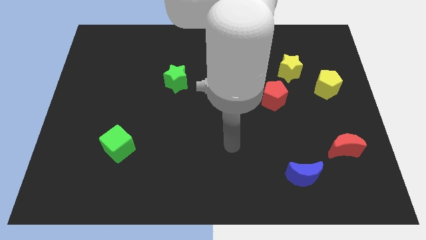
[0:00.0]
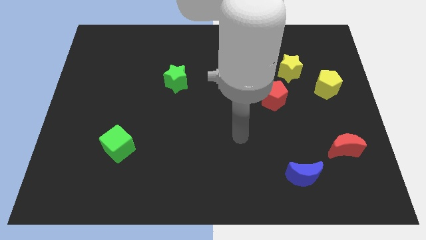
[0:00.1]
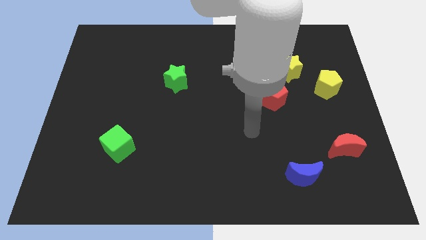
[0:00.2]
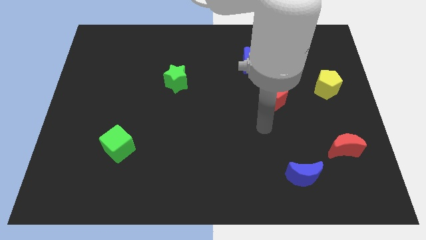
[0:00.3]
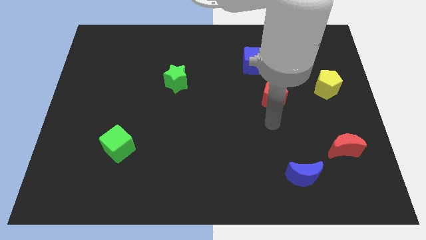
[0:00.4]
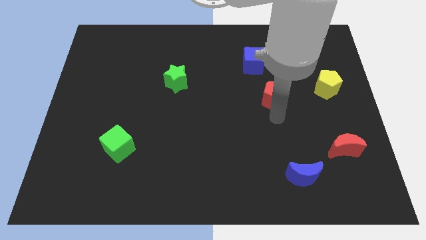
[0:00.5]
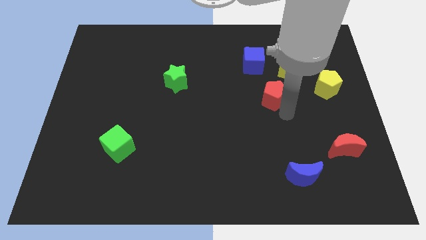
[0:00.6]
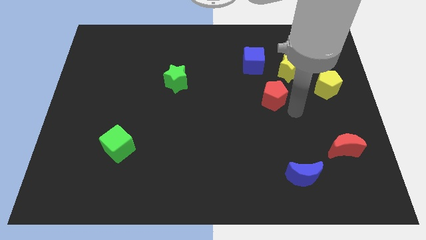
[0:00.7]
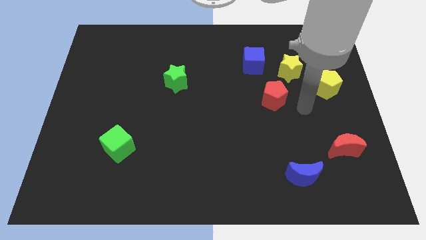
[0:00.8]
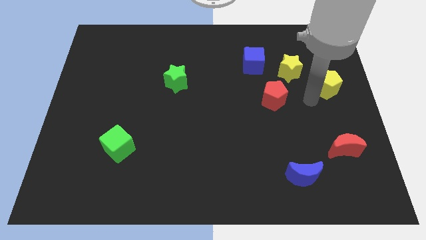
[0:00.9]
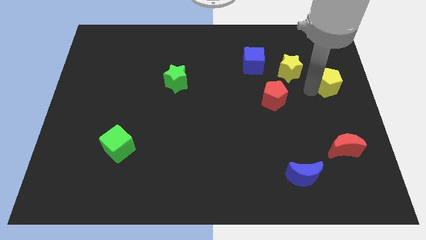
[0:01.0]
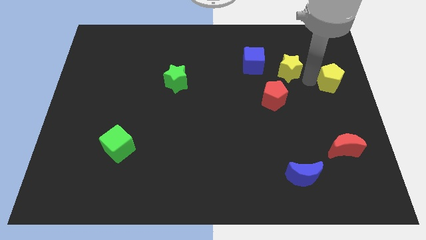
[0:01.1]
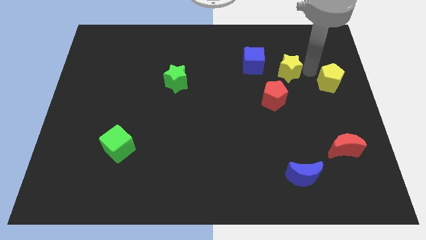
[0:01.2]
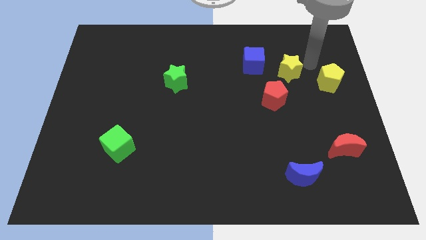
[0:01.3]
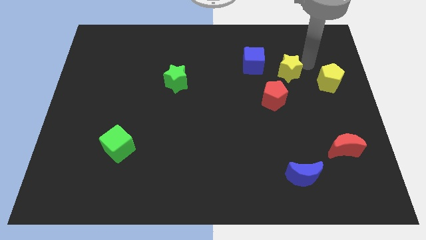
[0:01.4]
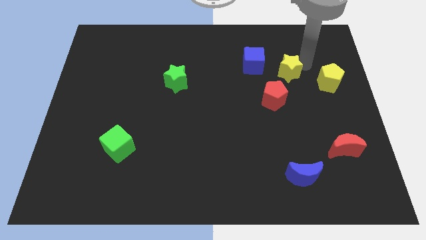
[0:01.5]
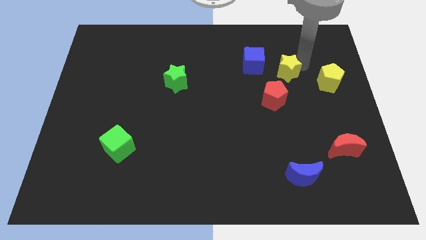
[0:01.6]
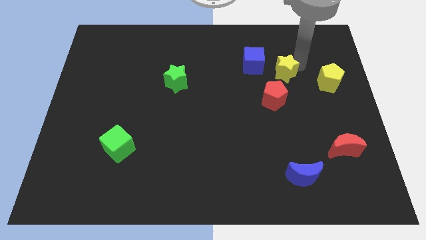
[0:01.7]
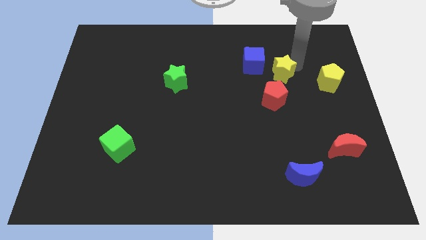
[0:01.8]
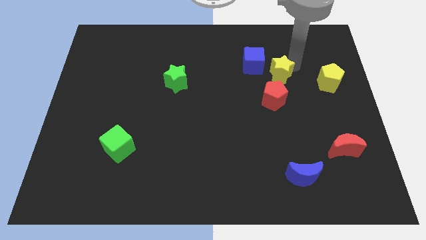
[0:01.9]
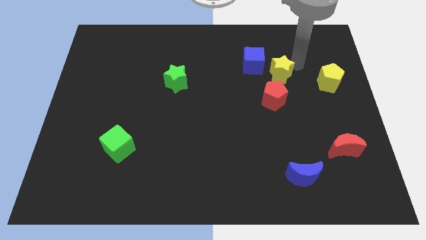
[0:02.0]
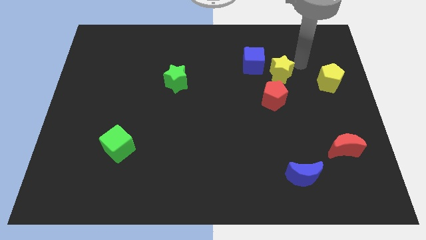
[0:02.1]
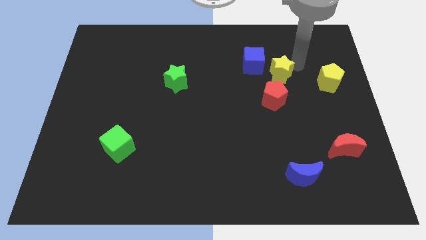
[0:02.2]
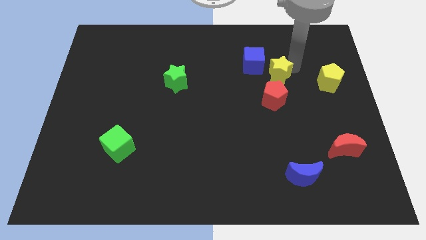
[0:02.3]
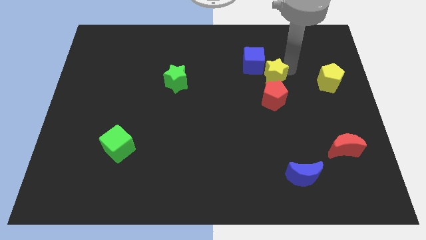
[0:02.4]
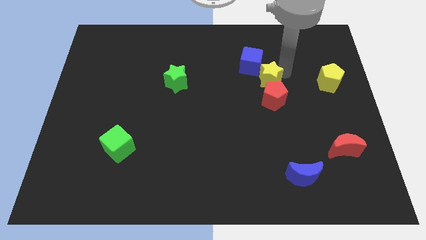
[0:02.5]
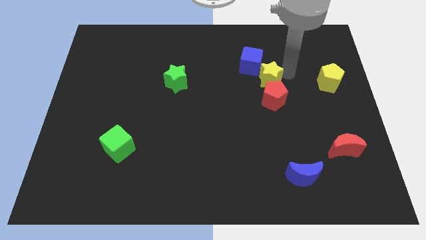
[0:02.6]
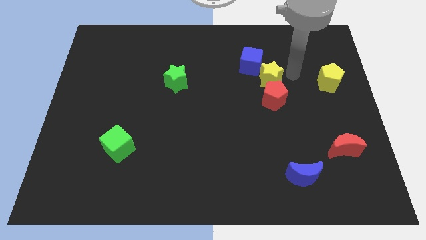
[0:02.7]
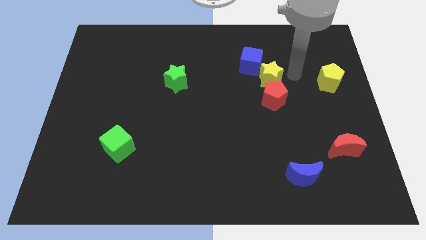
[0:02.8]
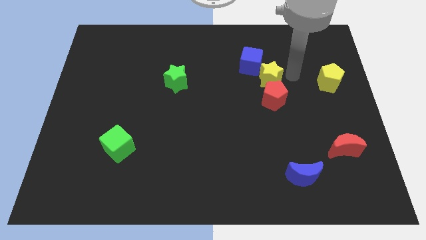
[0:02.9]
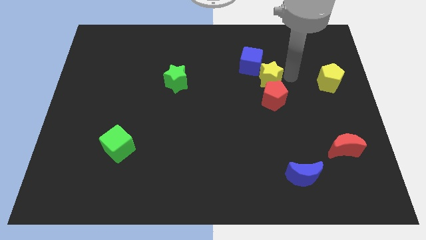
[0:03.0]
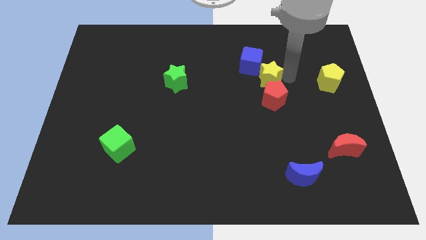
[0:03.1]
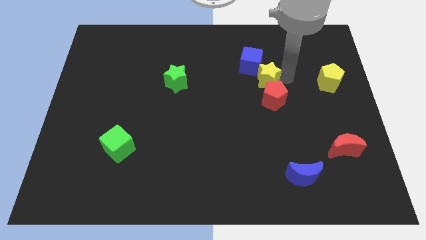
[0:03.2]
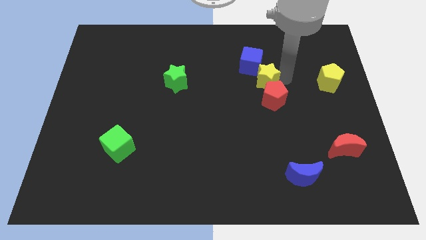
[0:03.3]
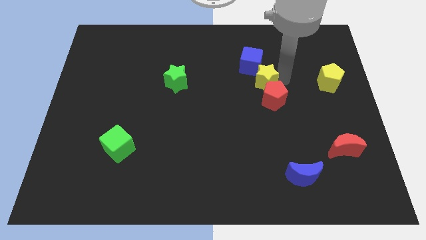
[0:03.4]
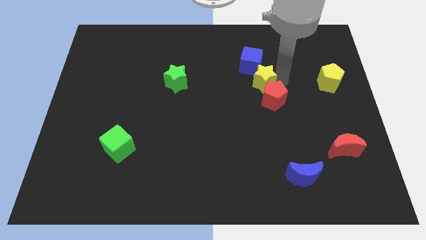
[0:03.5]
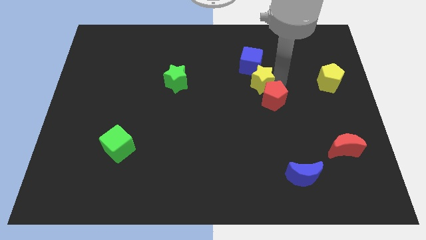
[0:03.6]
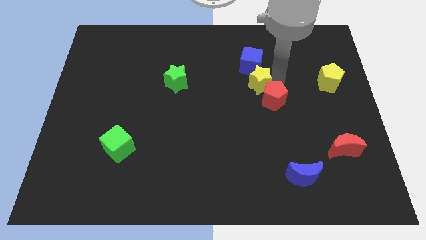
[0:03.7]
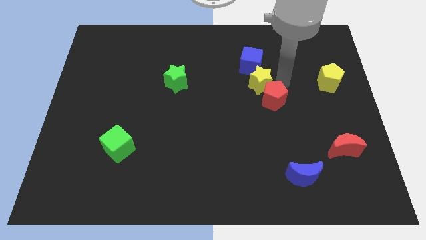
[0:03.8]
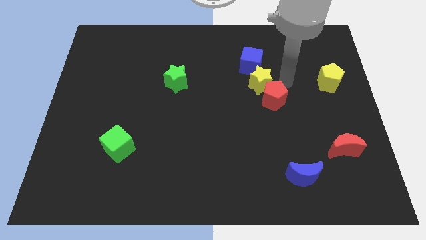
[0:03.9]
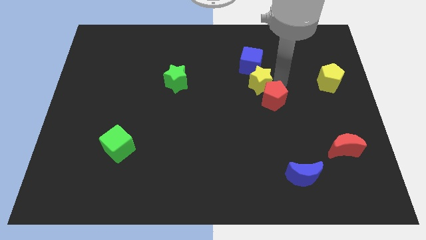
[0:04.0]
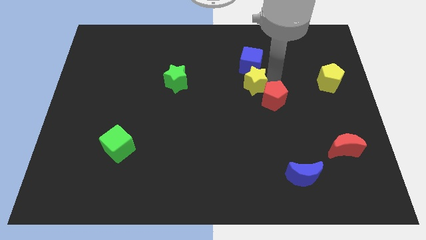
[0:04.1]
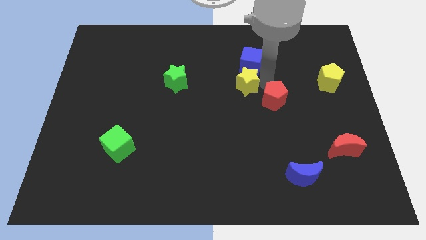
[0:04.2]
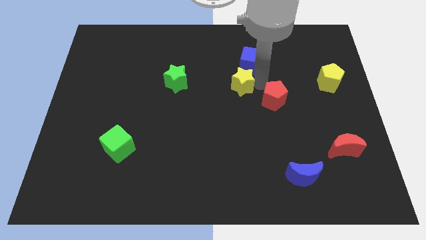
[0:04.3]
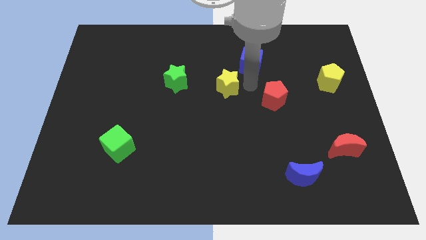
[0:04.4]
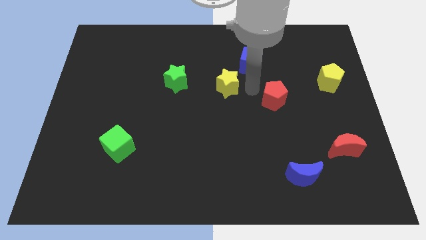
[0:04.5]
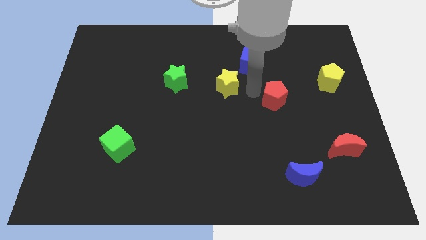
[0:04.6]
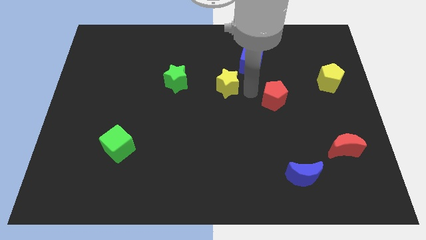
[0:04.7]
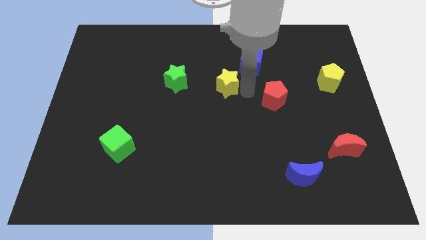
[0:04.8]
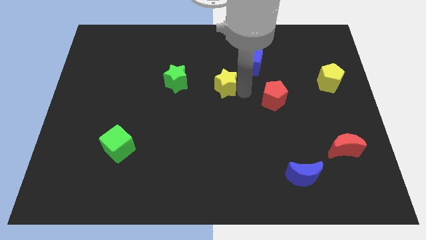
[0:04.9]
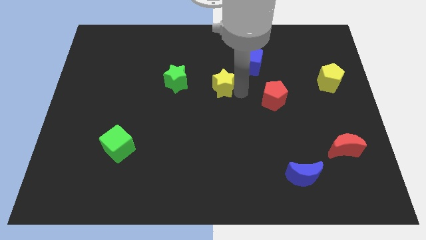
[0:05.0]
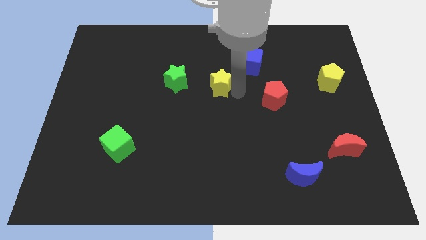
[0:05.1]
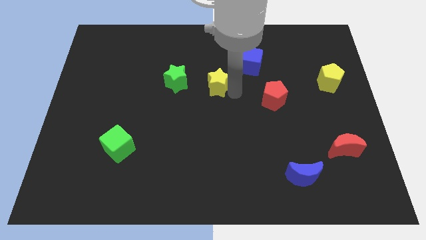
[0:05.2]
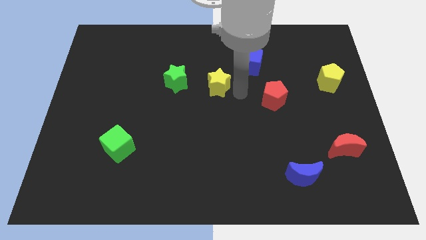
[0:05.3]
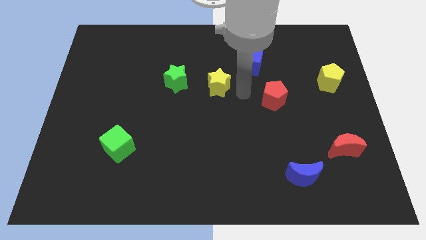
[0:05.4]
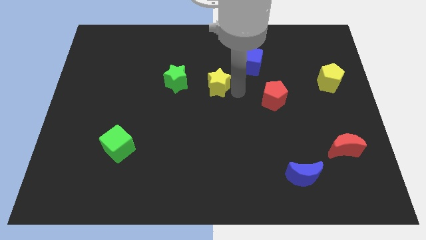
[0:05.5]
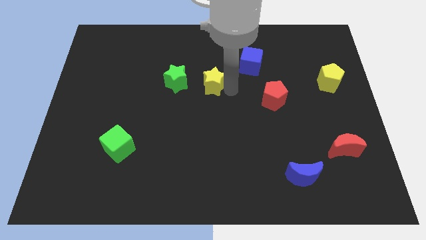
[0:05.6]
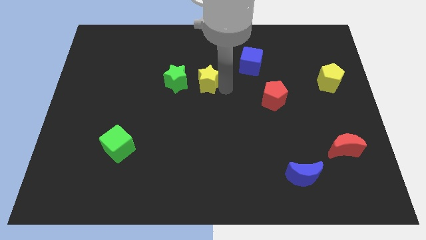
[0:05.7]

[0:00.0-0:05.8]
push the yellow star left

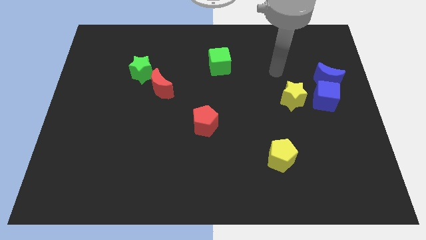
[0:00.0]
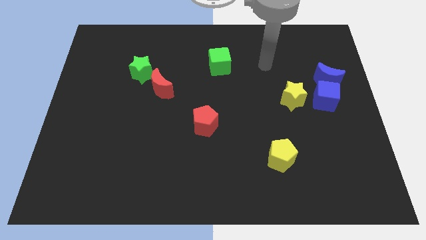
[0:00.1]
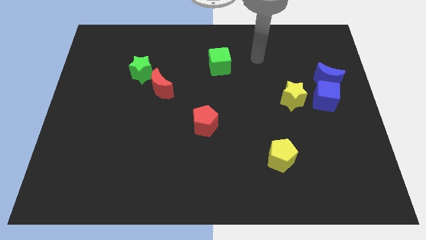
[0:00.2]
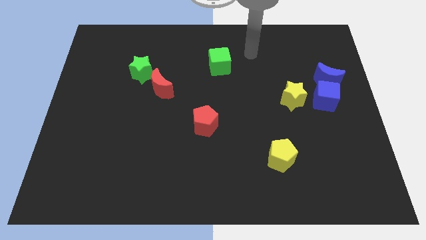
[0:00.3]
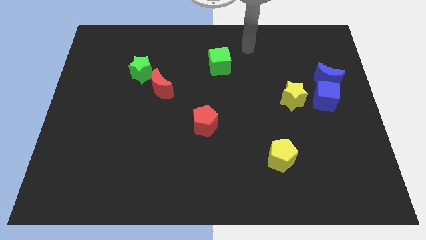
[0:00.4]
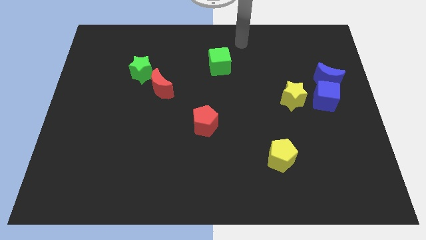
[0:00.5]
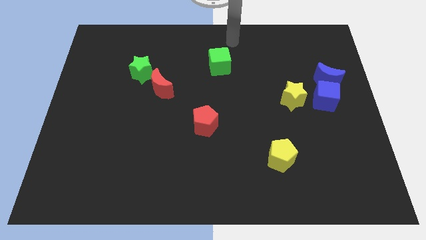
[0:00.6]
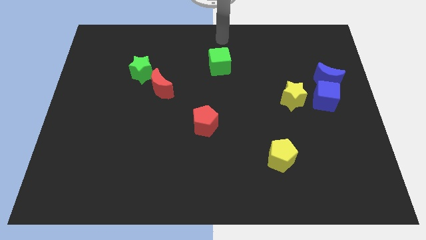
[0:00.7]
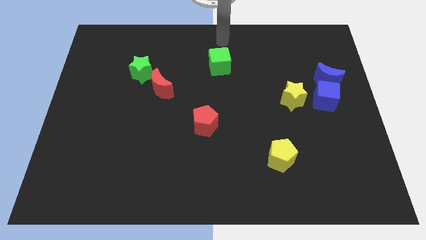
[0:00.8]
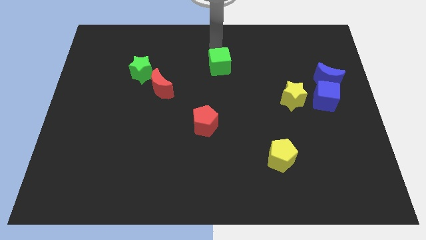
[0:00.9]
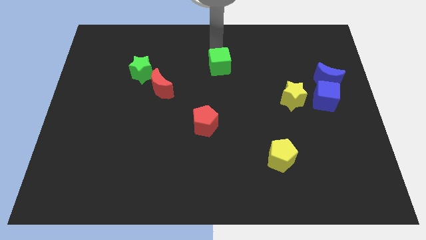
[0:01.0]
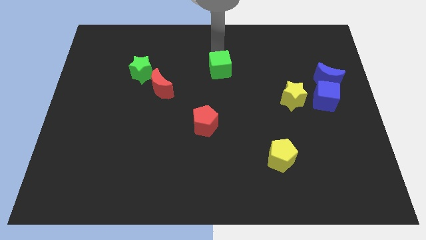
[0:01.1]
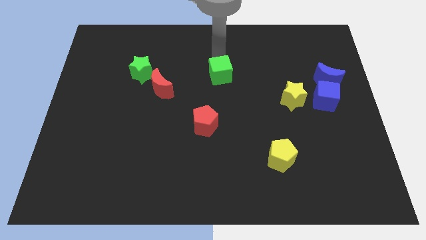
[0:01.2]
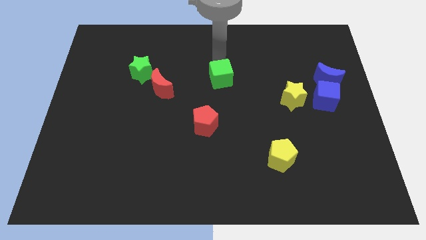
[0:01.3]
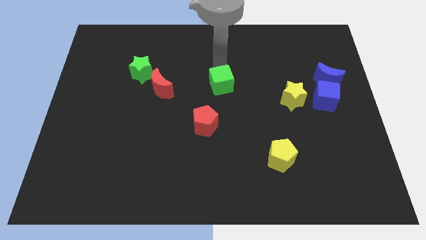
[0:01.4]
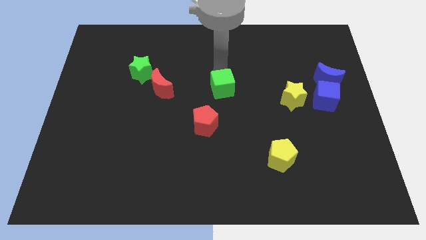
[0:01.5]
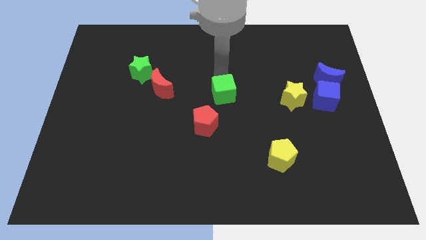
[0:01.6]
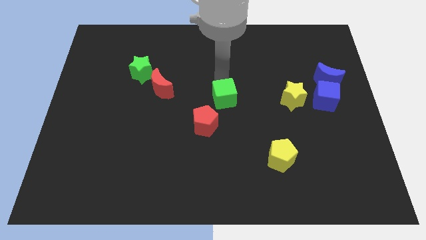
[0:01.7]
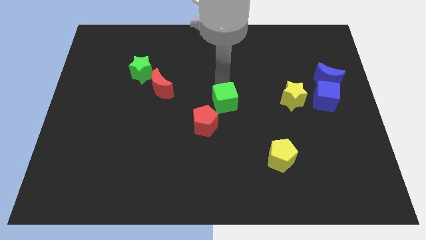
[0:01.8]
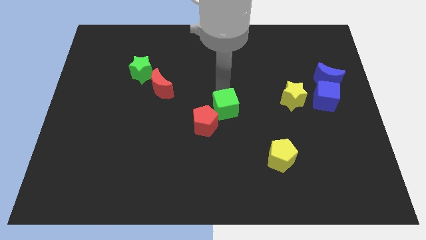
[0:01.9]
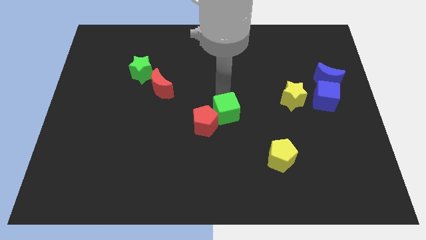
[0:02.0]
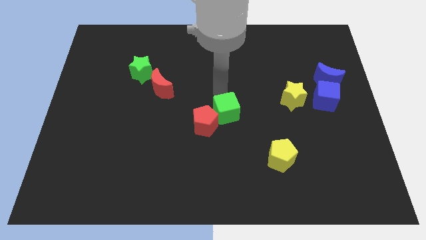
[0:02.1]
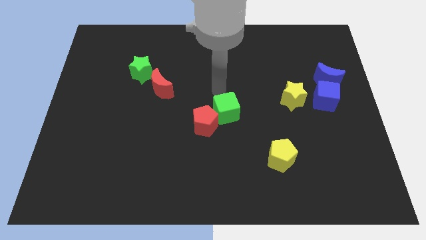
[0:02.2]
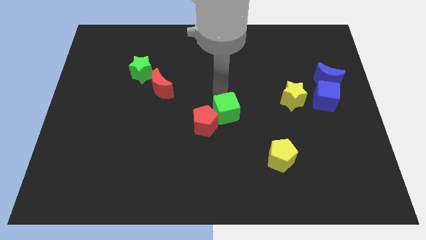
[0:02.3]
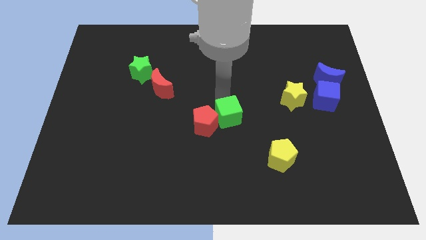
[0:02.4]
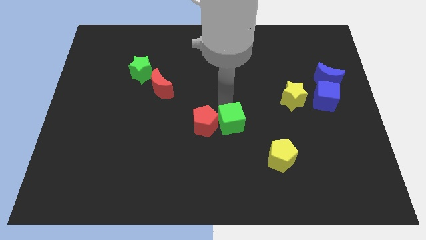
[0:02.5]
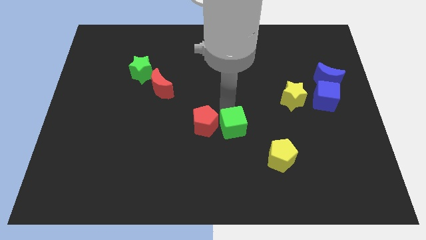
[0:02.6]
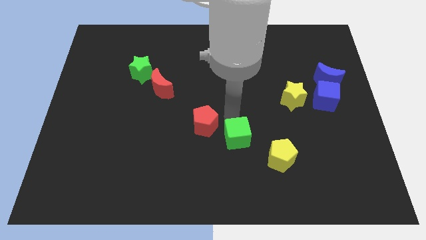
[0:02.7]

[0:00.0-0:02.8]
push the green cube down
